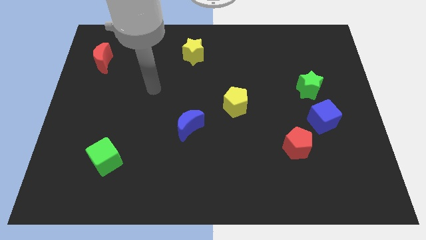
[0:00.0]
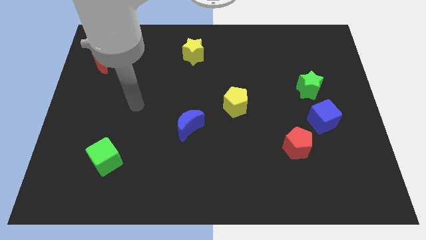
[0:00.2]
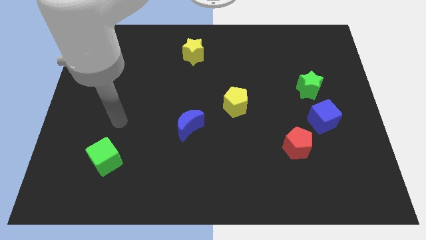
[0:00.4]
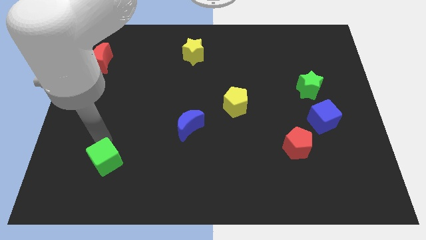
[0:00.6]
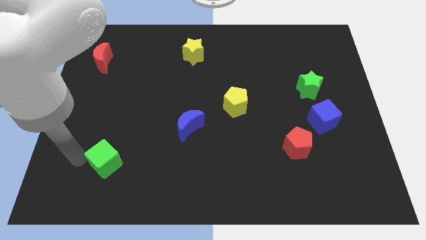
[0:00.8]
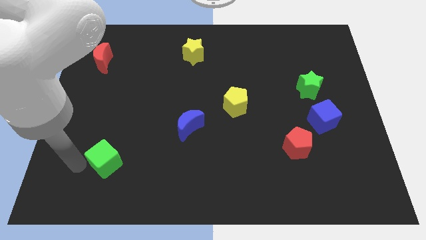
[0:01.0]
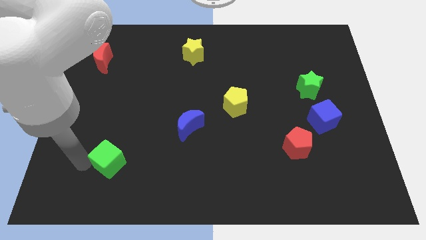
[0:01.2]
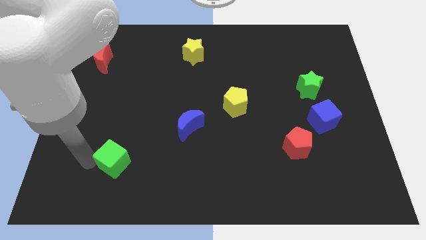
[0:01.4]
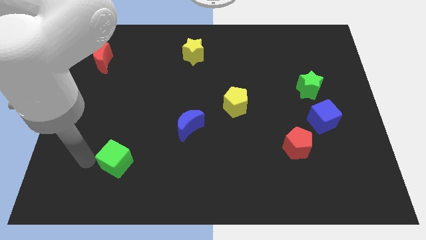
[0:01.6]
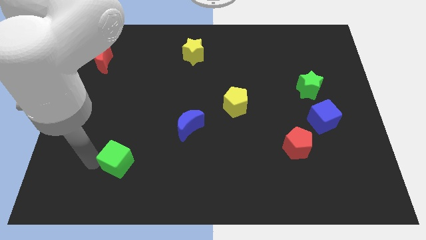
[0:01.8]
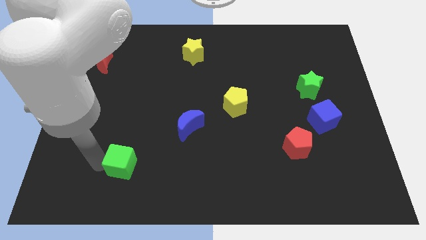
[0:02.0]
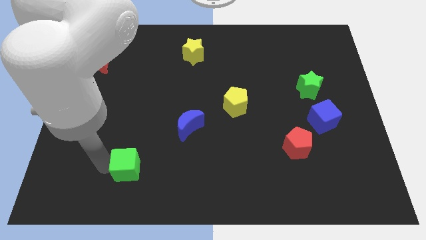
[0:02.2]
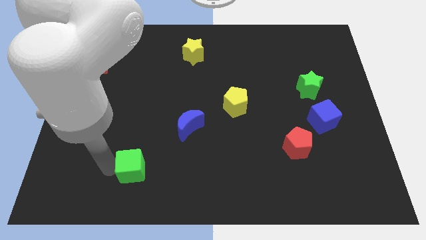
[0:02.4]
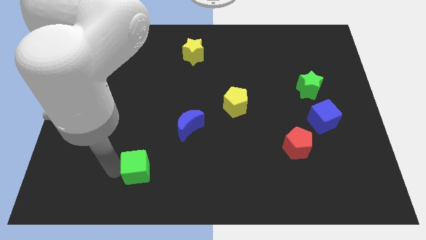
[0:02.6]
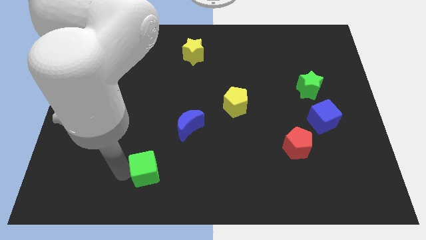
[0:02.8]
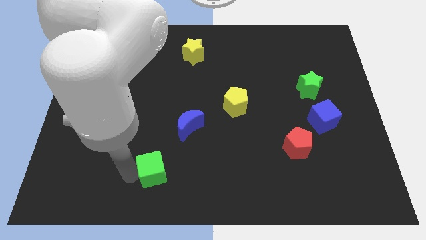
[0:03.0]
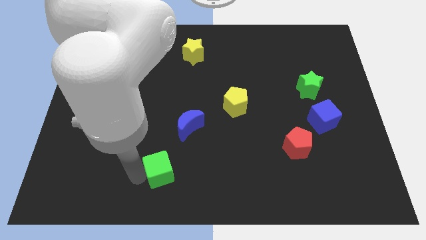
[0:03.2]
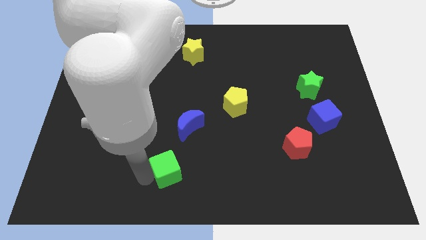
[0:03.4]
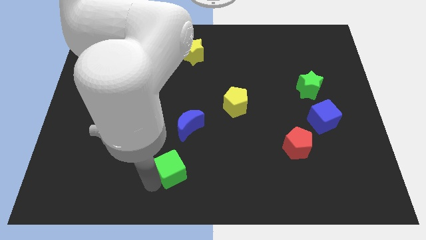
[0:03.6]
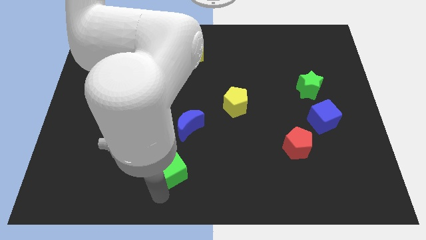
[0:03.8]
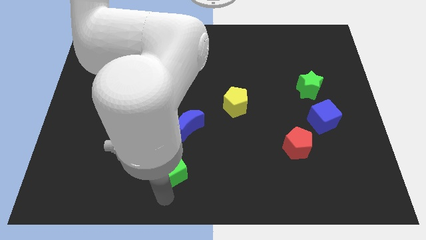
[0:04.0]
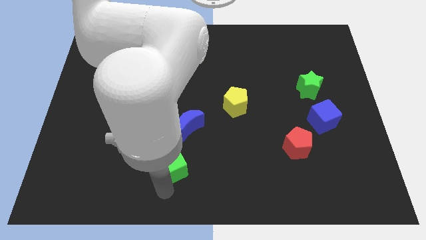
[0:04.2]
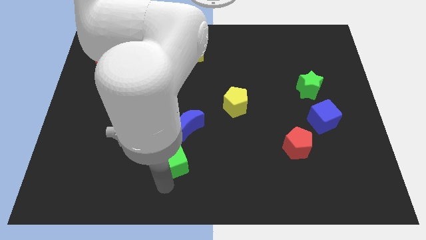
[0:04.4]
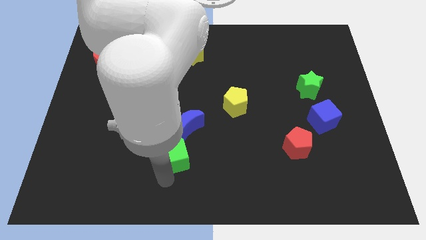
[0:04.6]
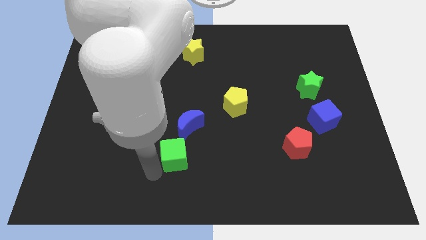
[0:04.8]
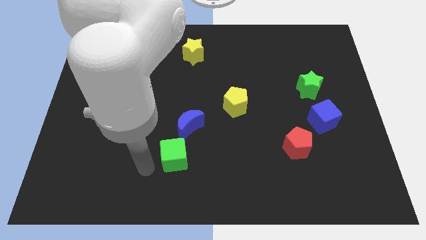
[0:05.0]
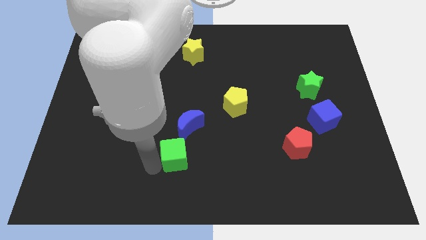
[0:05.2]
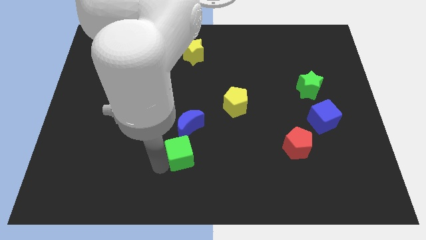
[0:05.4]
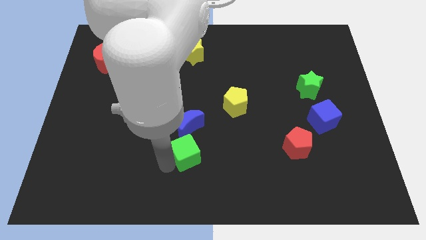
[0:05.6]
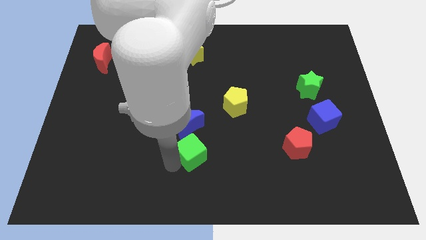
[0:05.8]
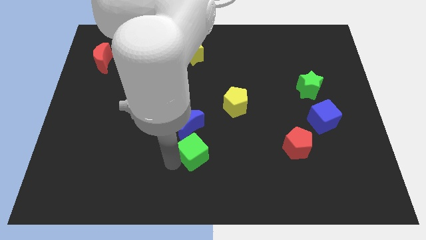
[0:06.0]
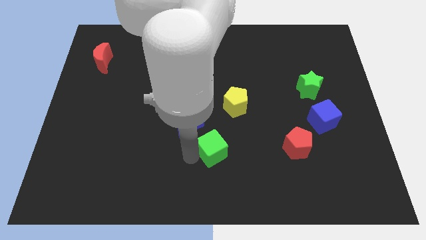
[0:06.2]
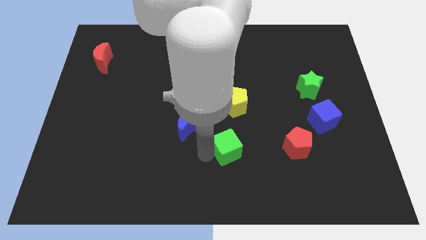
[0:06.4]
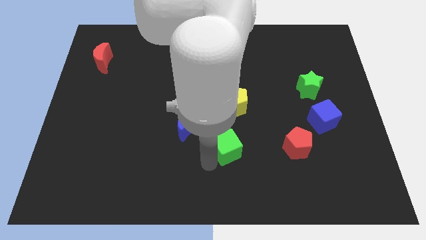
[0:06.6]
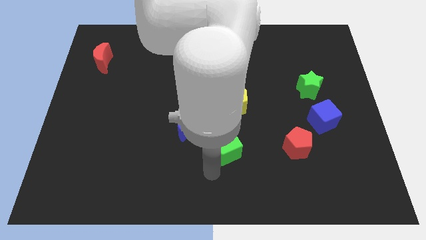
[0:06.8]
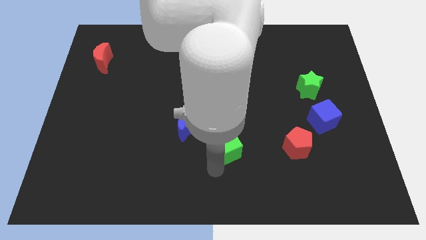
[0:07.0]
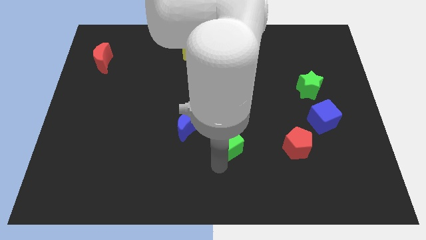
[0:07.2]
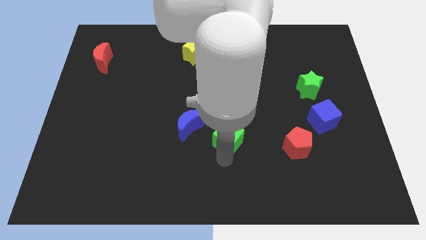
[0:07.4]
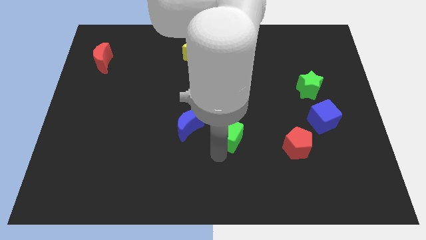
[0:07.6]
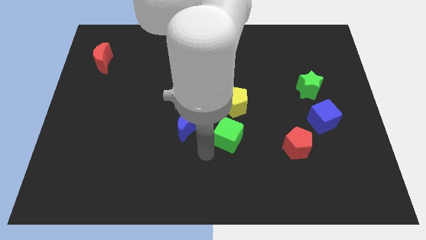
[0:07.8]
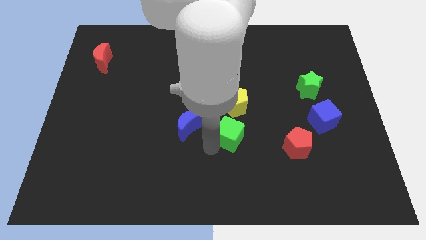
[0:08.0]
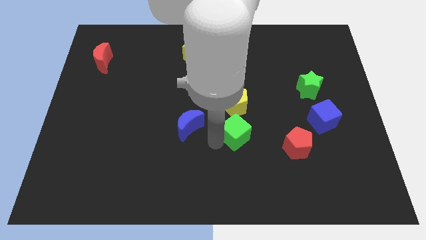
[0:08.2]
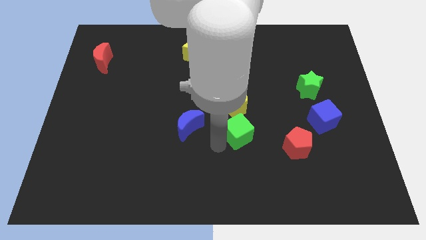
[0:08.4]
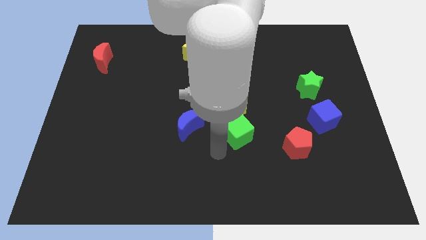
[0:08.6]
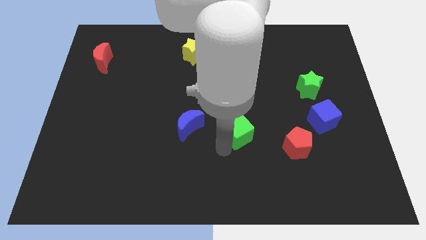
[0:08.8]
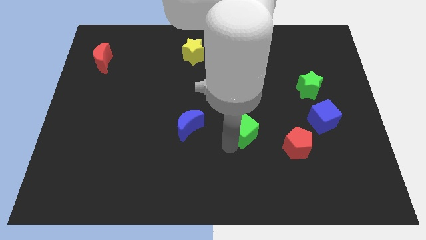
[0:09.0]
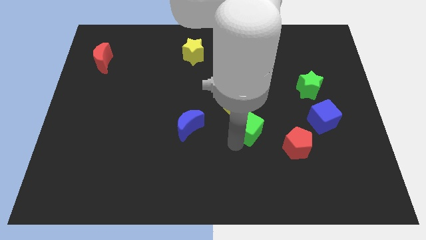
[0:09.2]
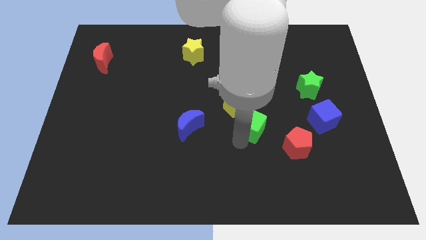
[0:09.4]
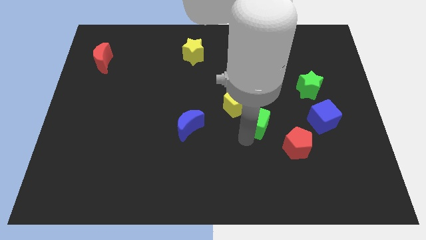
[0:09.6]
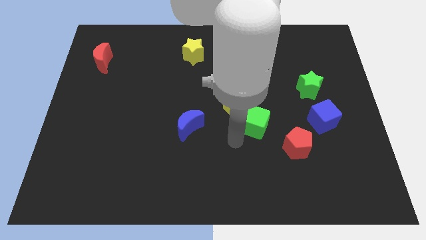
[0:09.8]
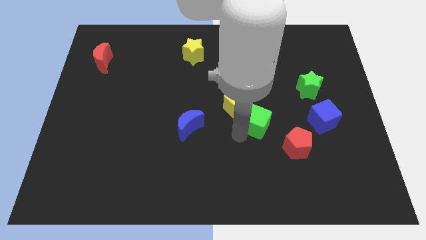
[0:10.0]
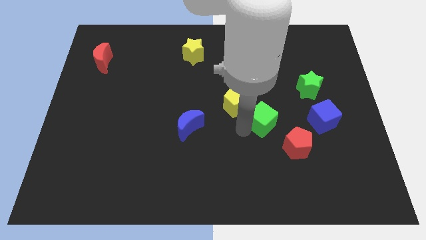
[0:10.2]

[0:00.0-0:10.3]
slide the green cube right of the yellow pentagon

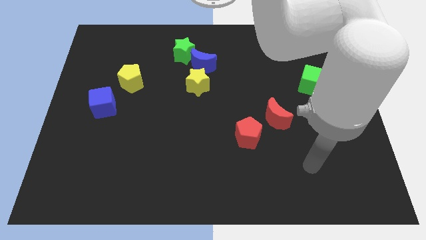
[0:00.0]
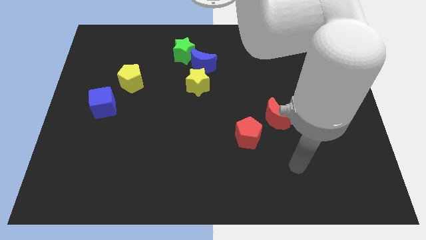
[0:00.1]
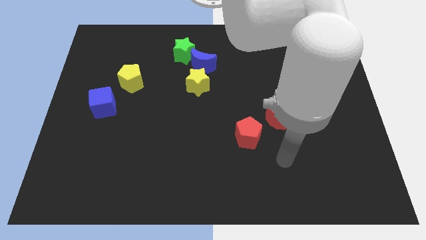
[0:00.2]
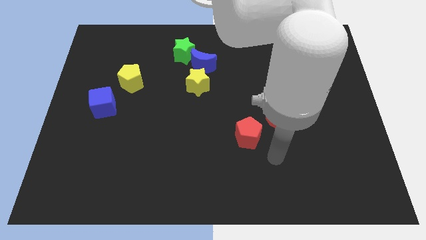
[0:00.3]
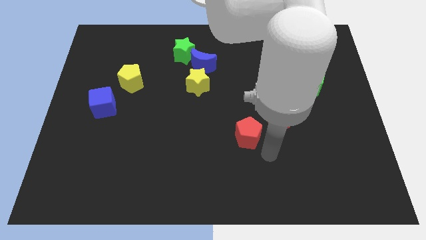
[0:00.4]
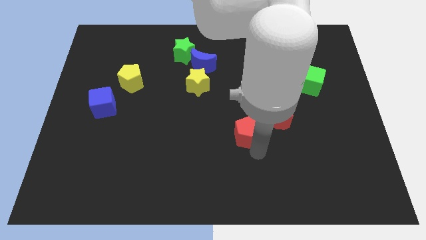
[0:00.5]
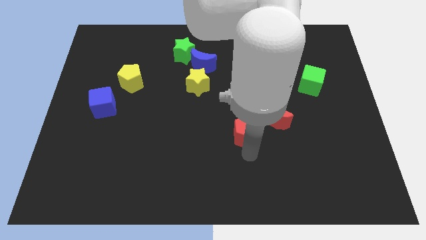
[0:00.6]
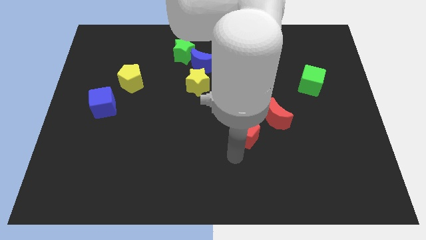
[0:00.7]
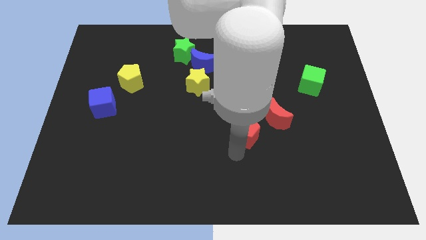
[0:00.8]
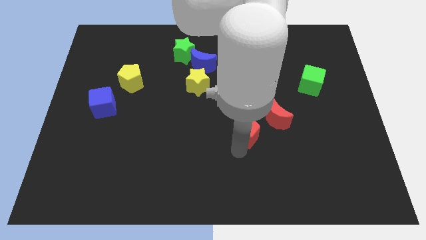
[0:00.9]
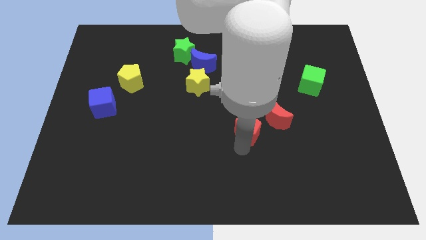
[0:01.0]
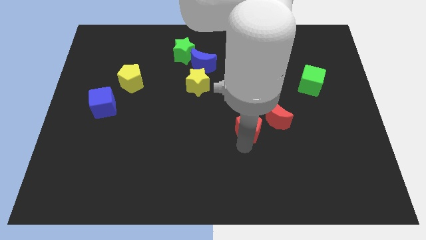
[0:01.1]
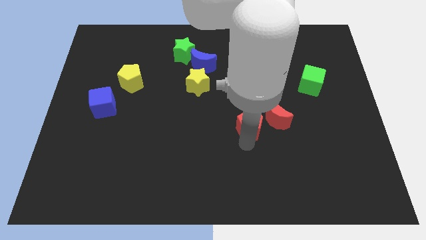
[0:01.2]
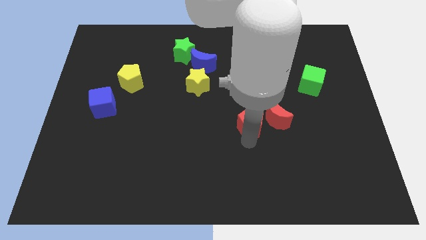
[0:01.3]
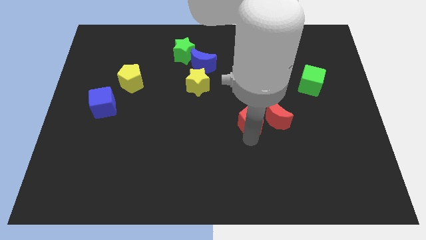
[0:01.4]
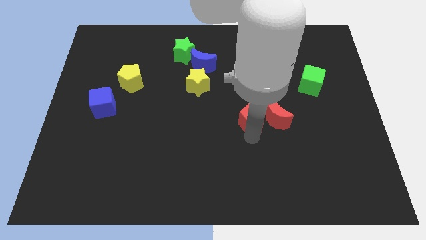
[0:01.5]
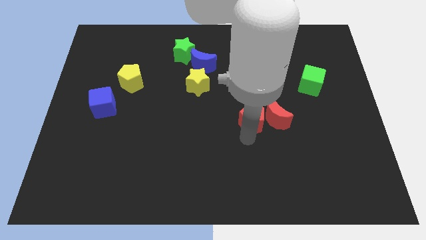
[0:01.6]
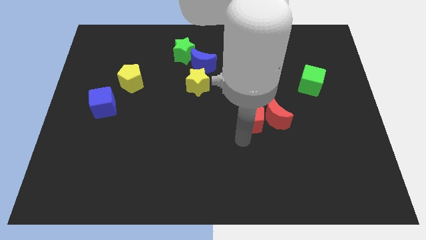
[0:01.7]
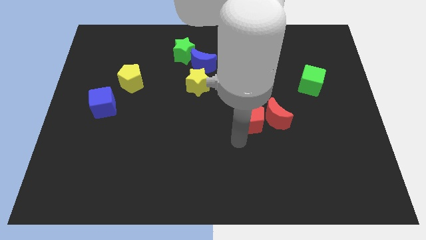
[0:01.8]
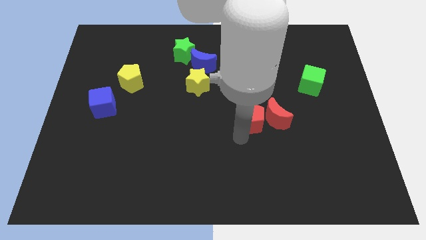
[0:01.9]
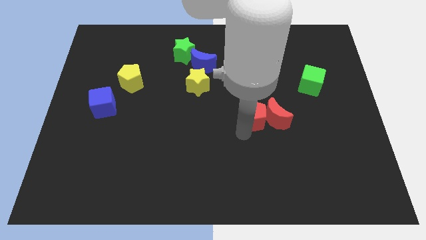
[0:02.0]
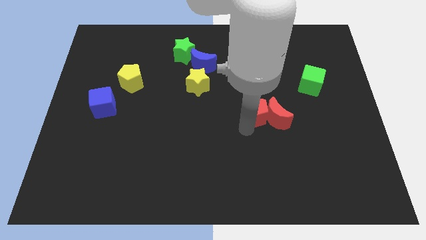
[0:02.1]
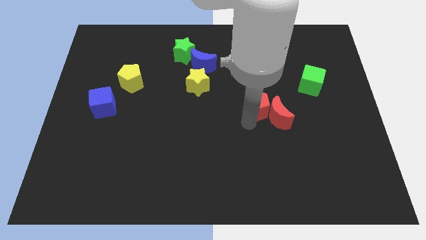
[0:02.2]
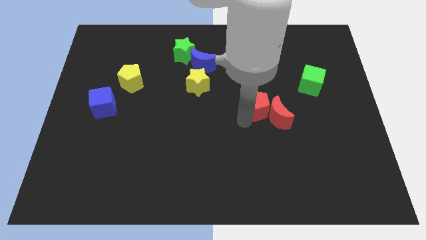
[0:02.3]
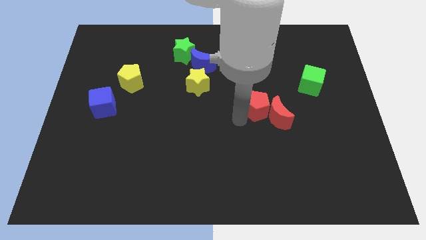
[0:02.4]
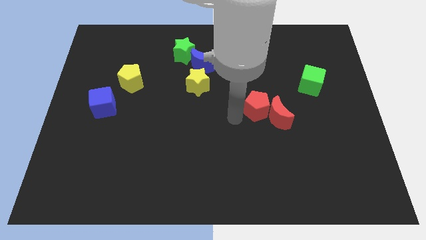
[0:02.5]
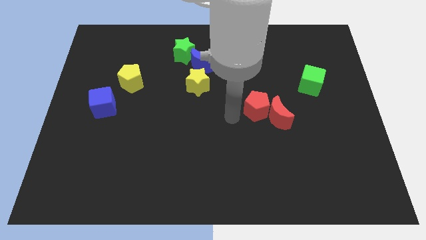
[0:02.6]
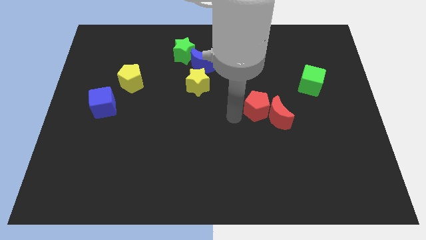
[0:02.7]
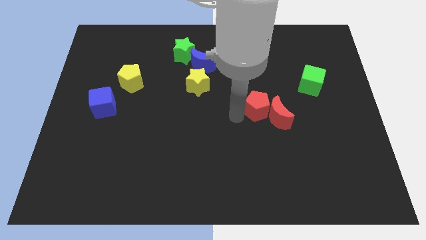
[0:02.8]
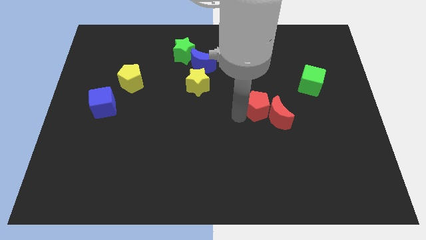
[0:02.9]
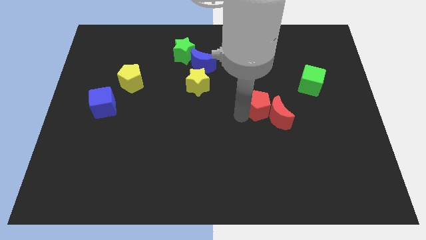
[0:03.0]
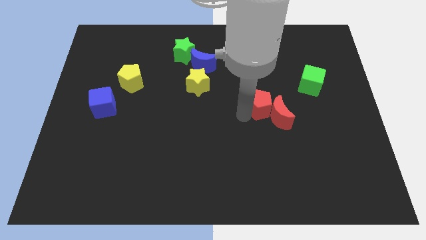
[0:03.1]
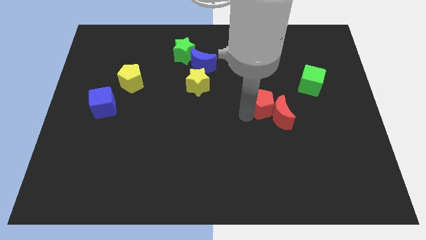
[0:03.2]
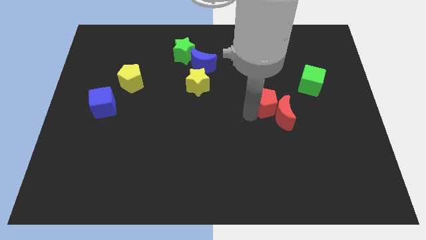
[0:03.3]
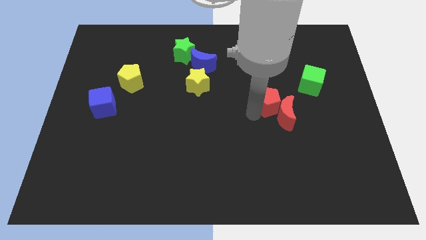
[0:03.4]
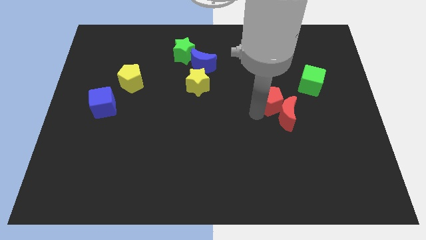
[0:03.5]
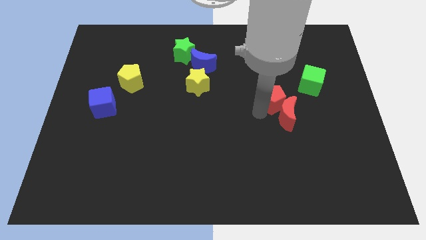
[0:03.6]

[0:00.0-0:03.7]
put the red pentagon to the bottom left of the green cube
